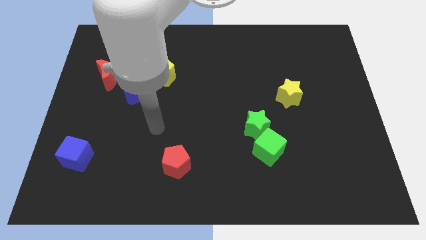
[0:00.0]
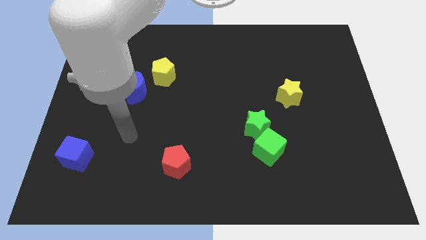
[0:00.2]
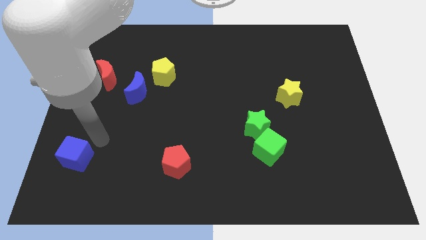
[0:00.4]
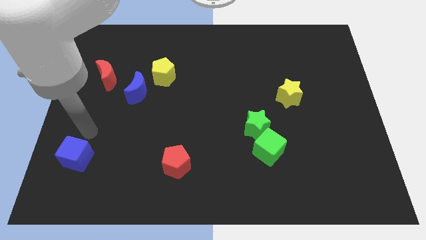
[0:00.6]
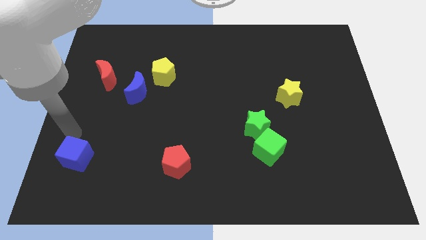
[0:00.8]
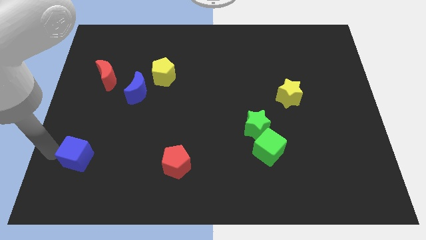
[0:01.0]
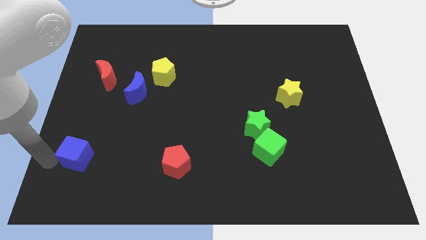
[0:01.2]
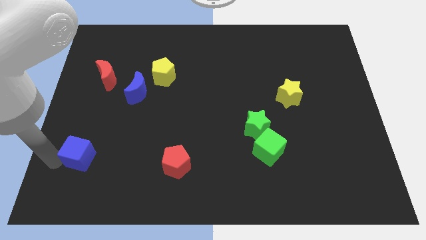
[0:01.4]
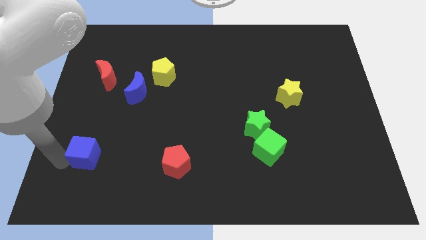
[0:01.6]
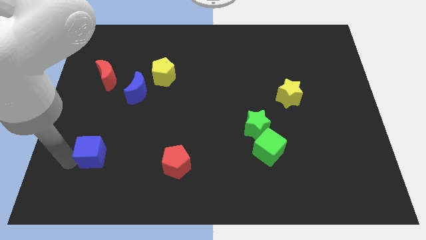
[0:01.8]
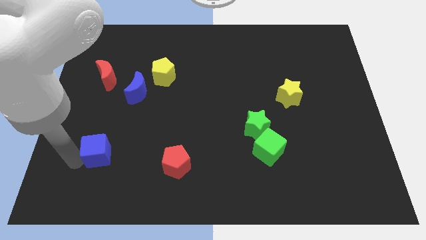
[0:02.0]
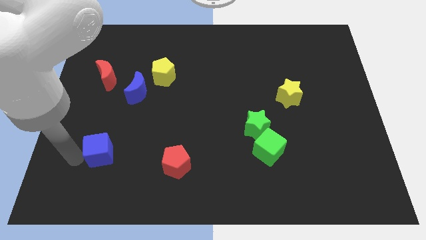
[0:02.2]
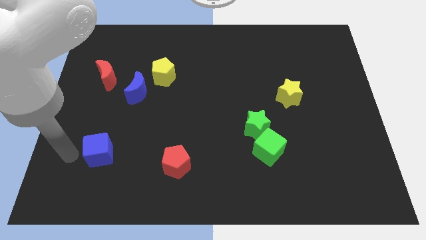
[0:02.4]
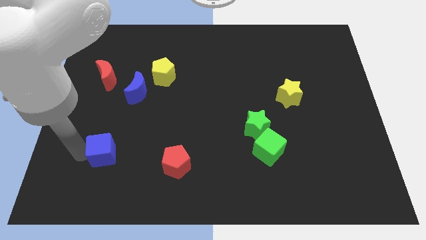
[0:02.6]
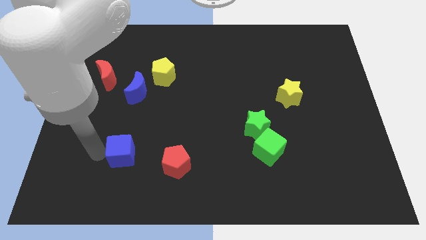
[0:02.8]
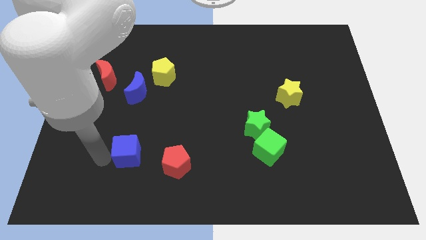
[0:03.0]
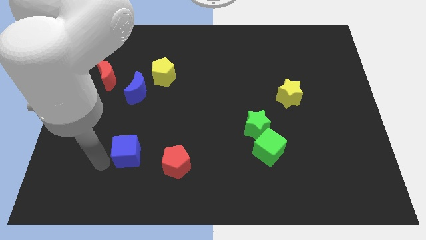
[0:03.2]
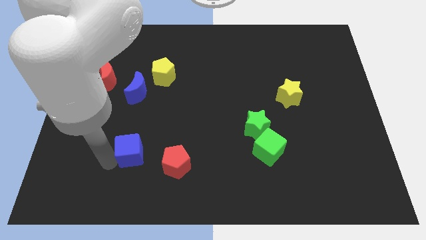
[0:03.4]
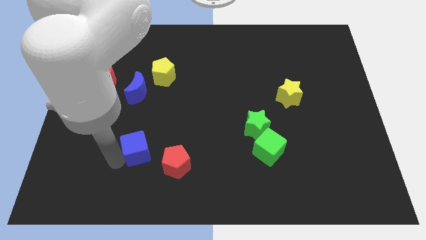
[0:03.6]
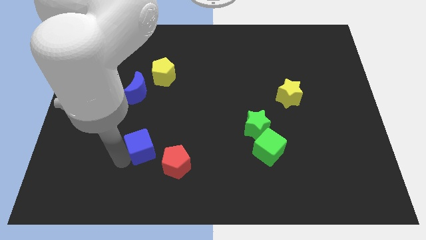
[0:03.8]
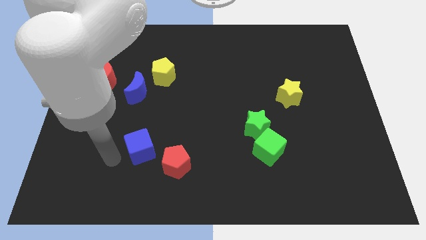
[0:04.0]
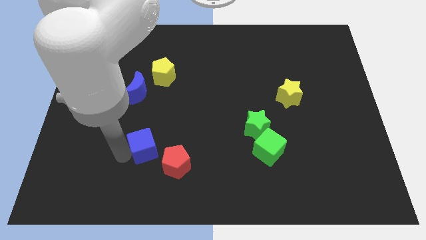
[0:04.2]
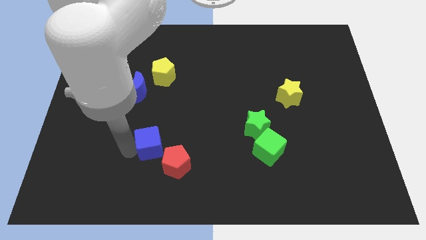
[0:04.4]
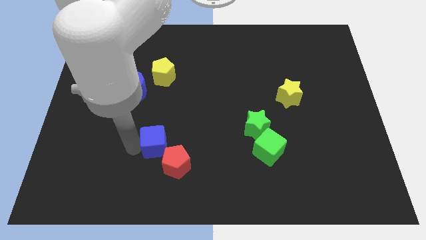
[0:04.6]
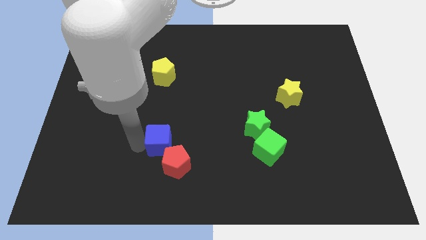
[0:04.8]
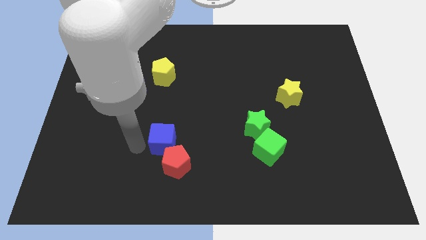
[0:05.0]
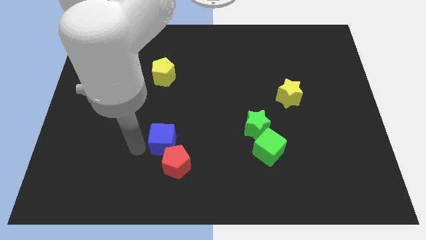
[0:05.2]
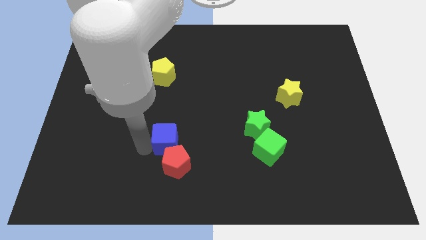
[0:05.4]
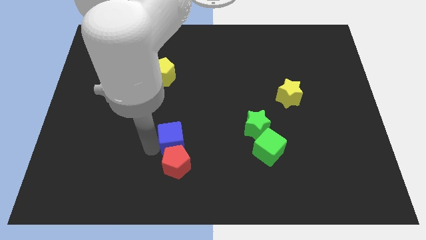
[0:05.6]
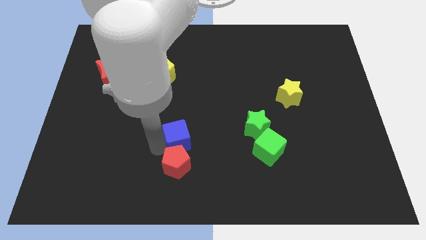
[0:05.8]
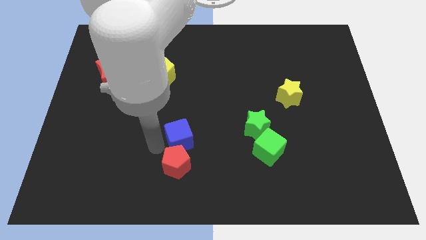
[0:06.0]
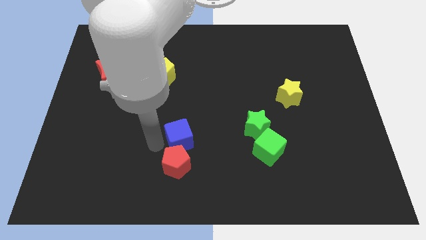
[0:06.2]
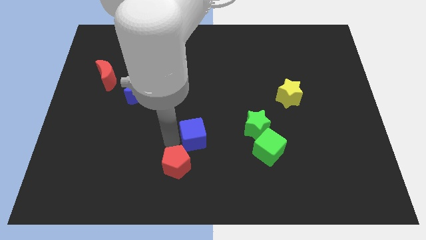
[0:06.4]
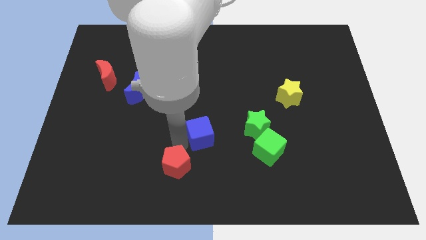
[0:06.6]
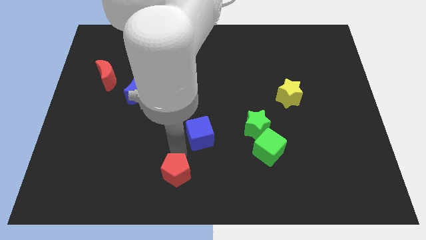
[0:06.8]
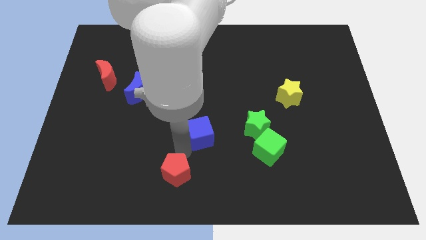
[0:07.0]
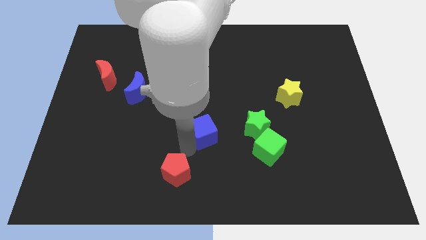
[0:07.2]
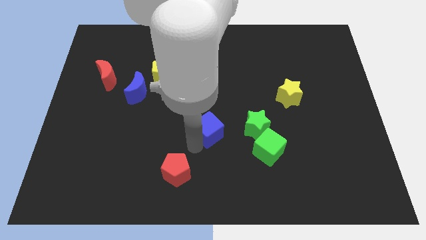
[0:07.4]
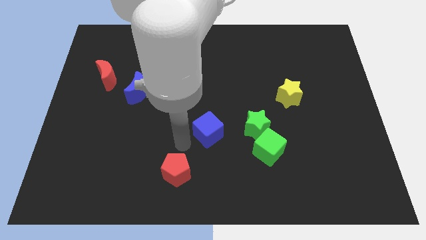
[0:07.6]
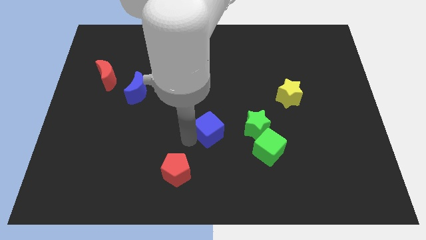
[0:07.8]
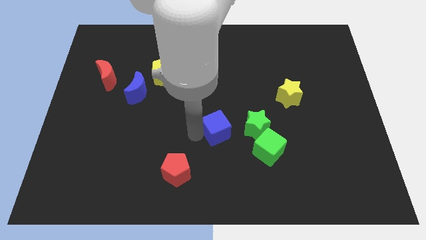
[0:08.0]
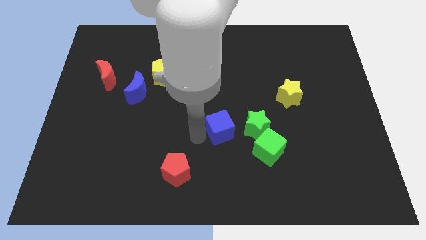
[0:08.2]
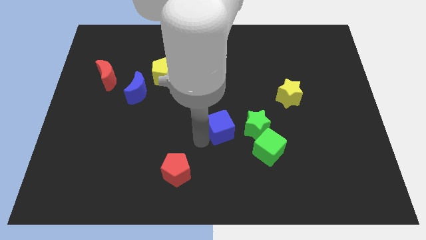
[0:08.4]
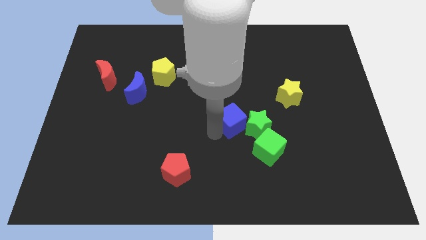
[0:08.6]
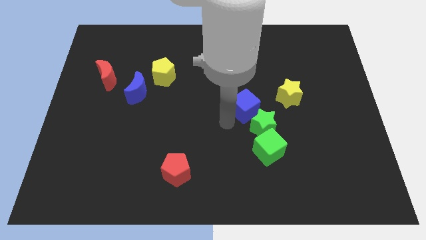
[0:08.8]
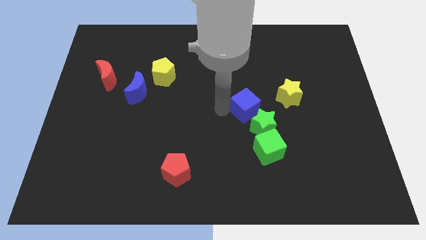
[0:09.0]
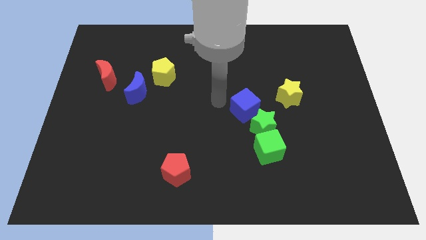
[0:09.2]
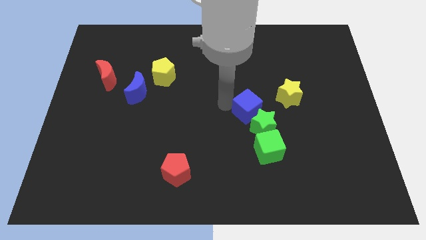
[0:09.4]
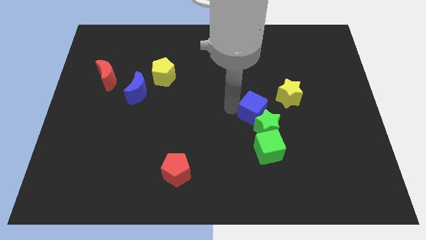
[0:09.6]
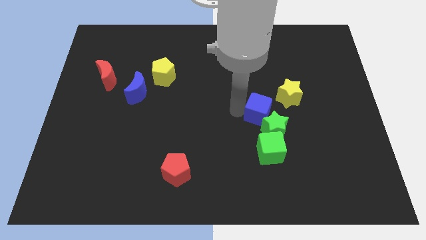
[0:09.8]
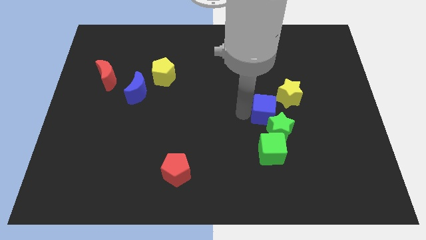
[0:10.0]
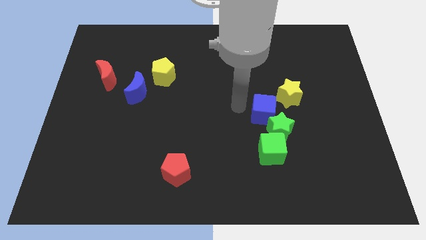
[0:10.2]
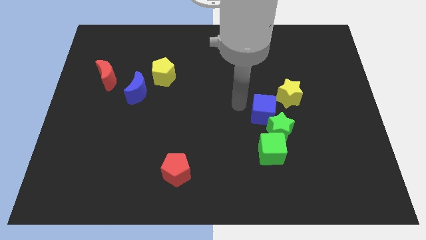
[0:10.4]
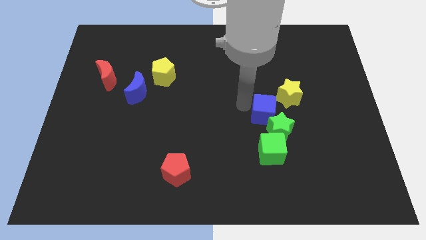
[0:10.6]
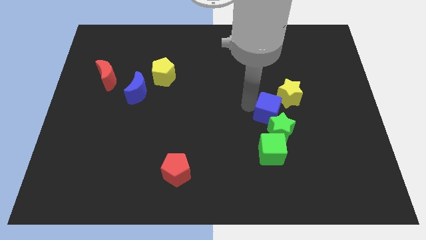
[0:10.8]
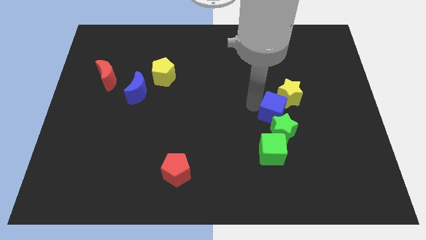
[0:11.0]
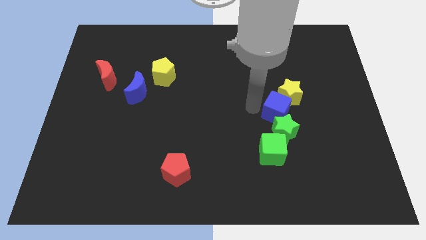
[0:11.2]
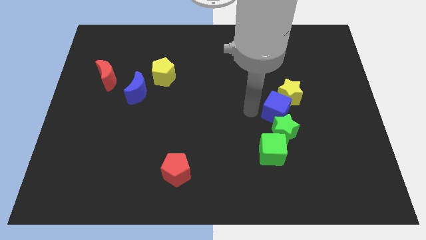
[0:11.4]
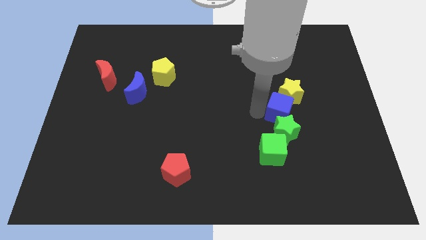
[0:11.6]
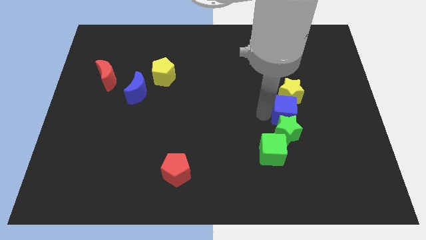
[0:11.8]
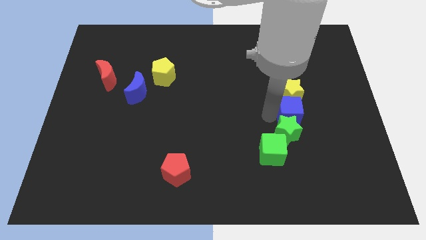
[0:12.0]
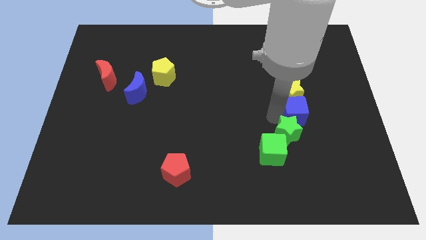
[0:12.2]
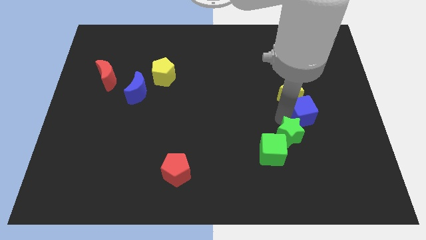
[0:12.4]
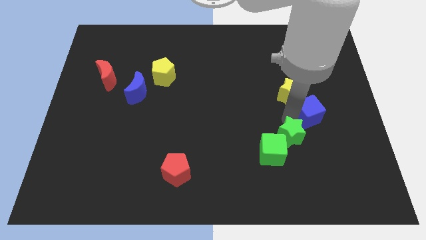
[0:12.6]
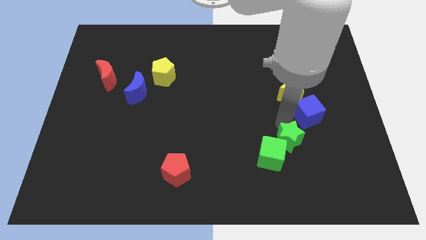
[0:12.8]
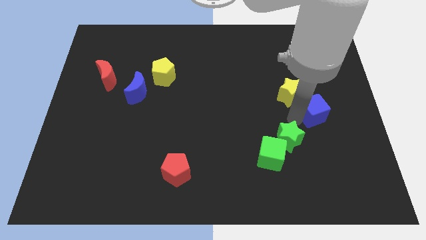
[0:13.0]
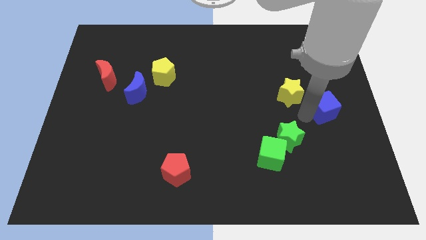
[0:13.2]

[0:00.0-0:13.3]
slide the blue cube to the right side
